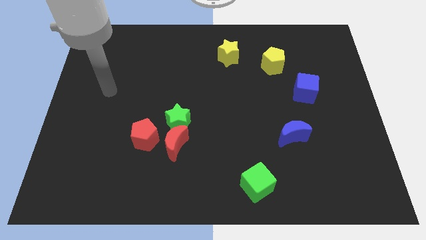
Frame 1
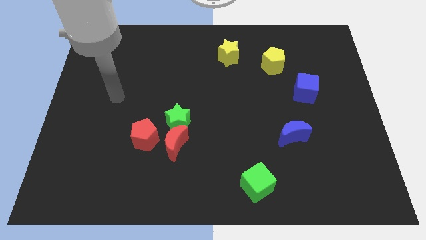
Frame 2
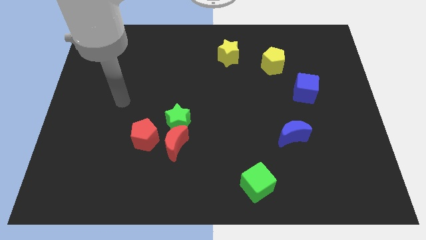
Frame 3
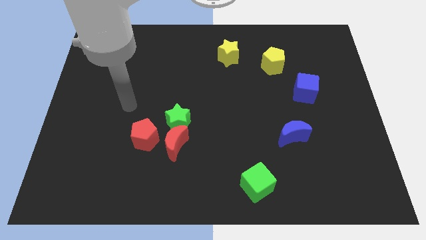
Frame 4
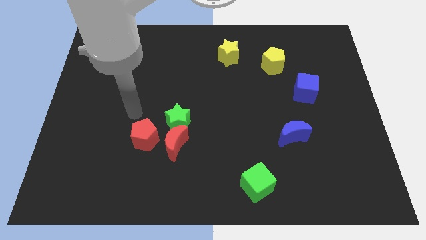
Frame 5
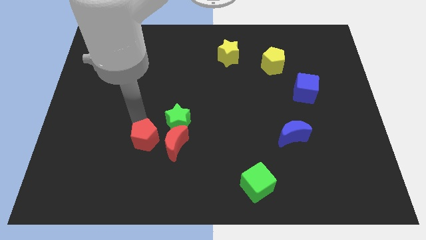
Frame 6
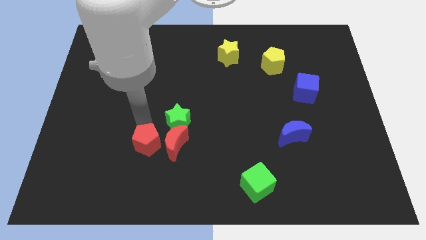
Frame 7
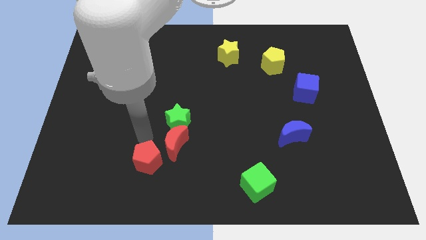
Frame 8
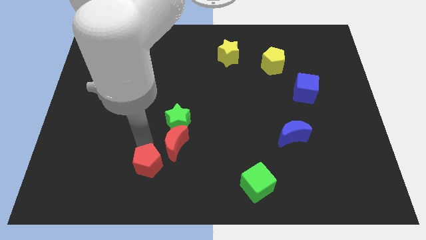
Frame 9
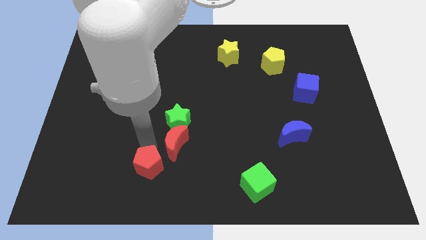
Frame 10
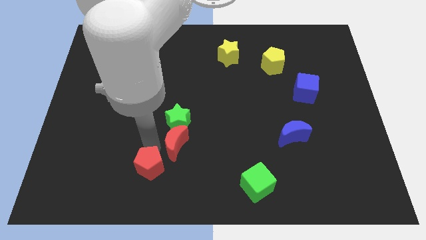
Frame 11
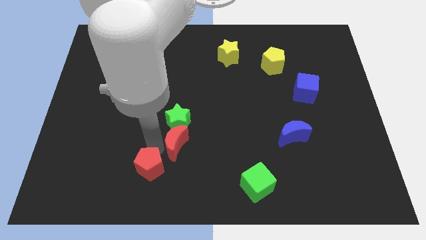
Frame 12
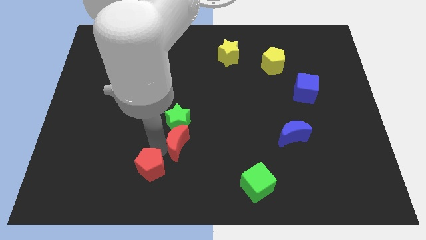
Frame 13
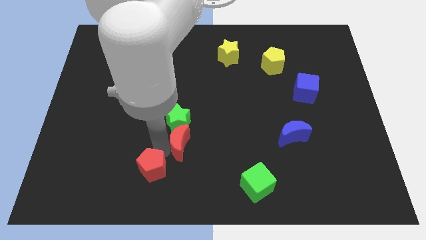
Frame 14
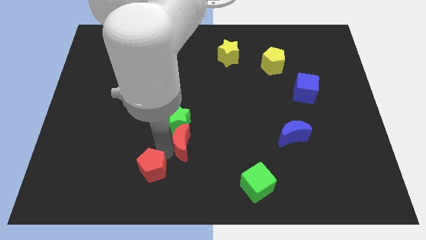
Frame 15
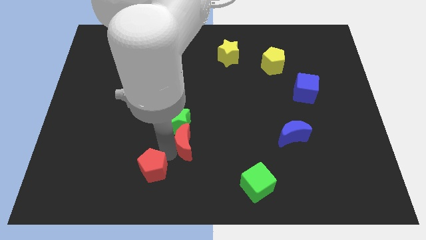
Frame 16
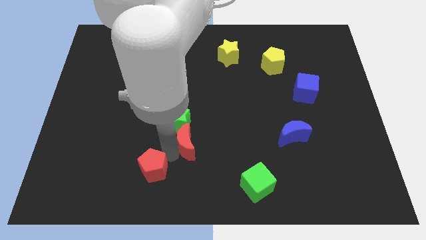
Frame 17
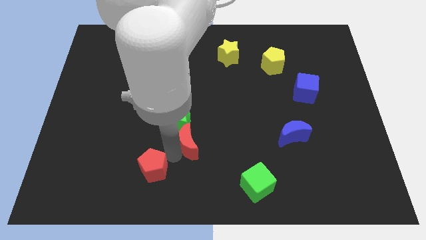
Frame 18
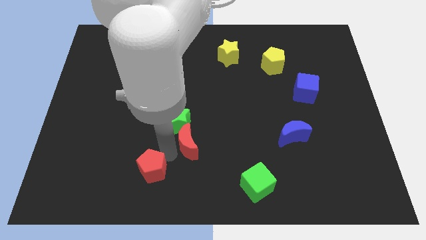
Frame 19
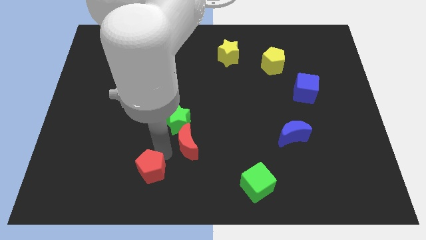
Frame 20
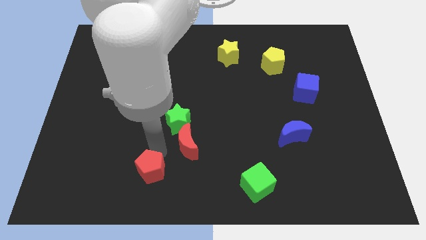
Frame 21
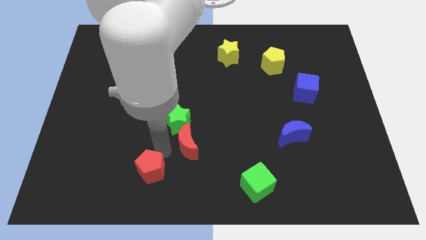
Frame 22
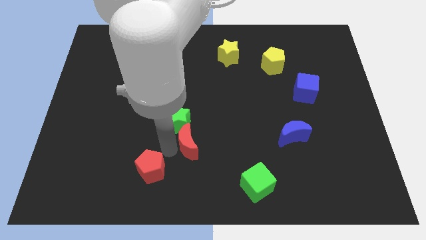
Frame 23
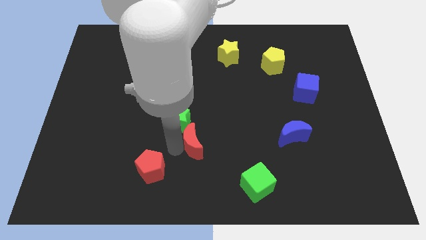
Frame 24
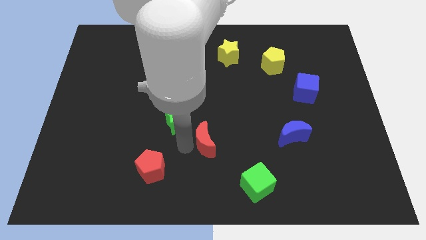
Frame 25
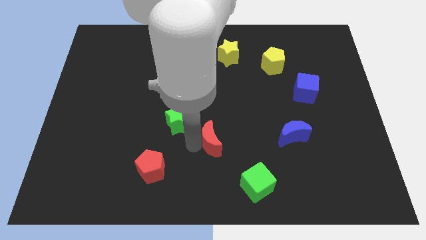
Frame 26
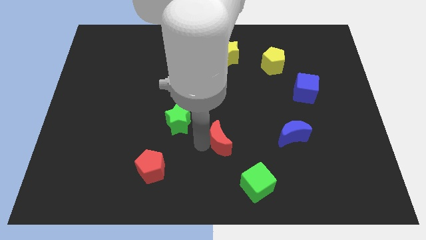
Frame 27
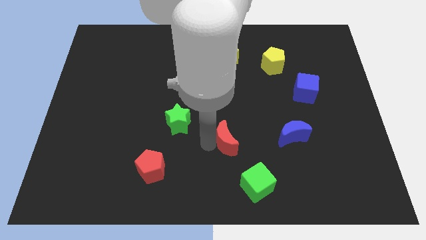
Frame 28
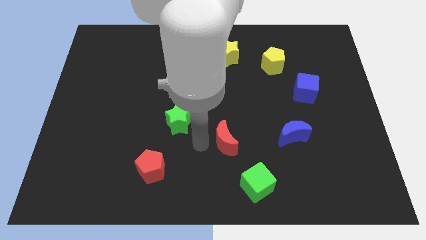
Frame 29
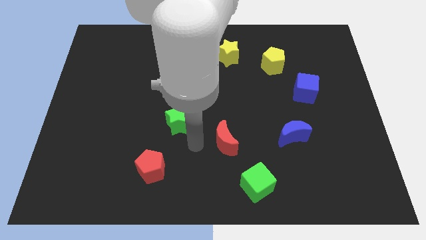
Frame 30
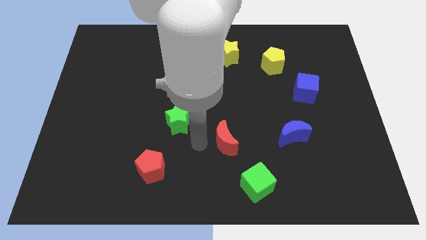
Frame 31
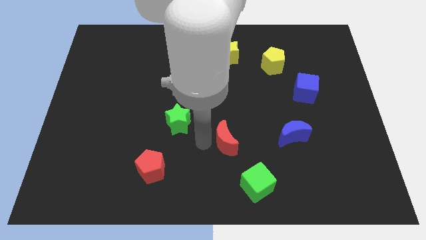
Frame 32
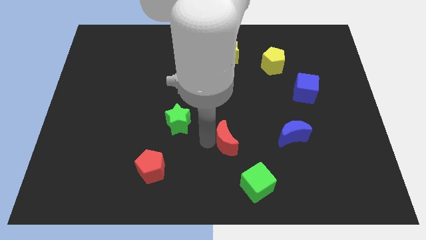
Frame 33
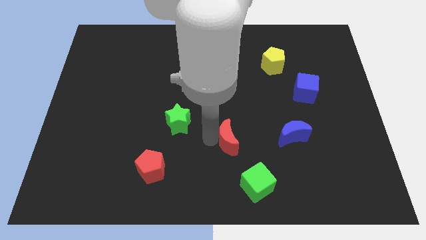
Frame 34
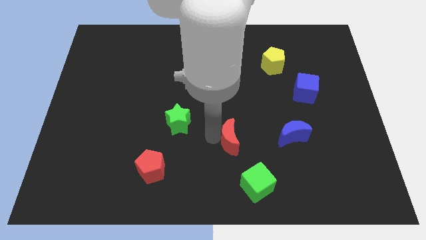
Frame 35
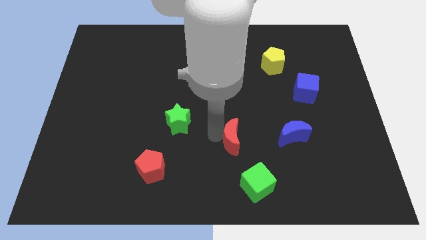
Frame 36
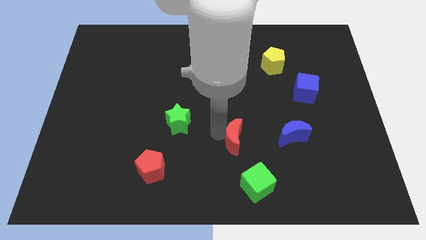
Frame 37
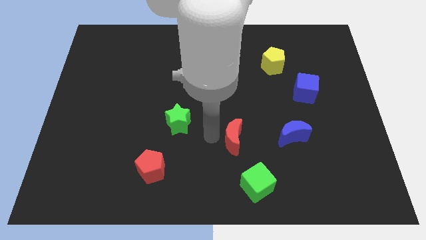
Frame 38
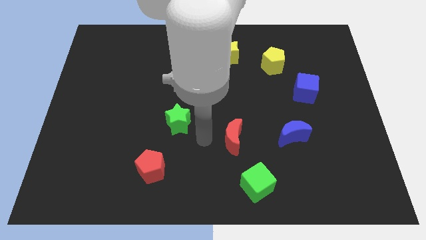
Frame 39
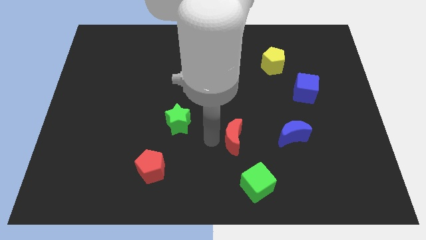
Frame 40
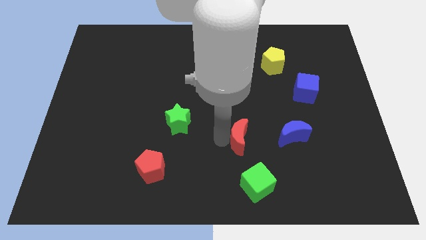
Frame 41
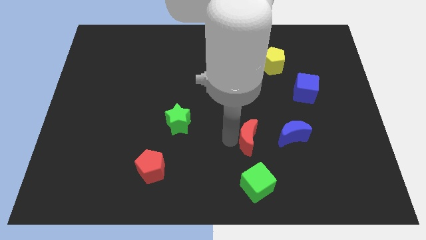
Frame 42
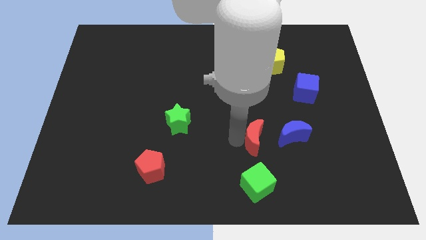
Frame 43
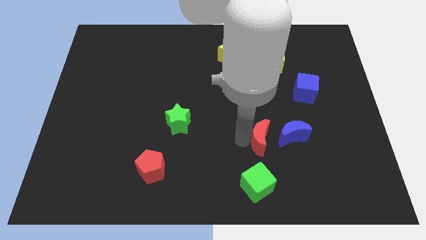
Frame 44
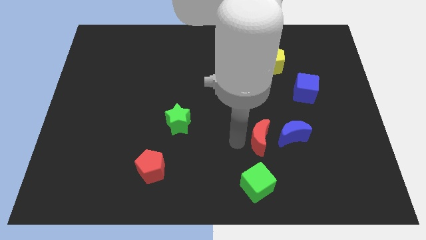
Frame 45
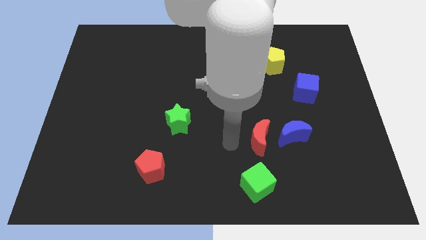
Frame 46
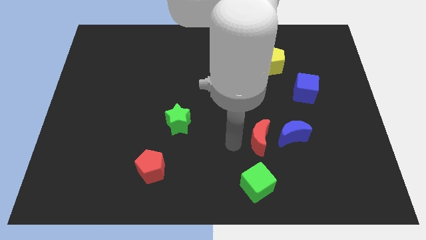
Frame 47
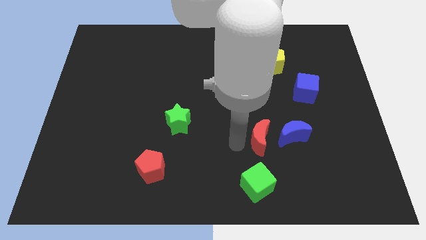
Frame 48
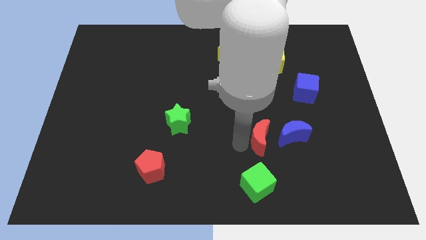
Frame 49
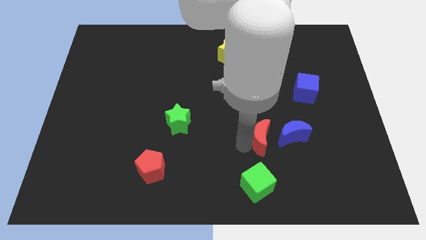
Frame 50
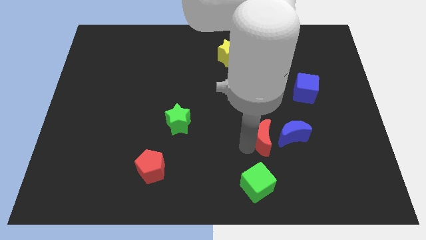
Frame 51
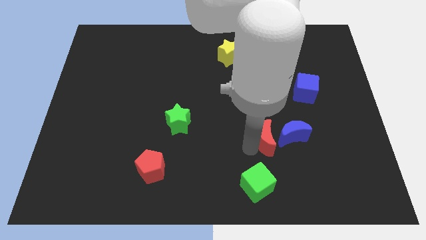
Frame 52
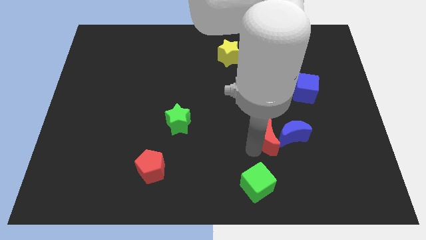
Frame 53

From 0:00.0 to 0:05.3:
put the red moon close to the blue moon

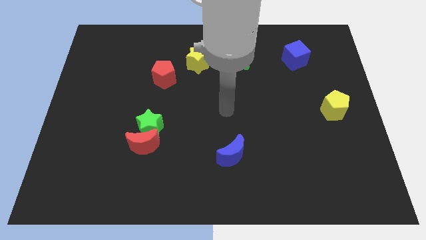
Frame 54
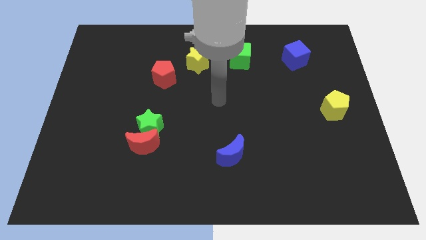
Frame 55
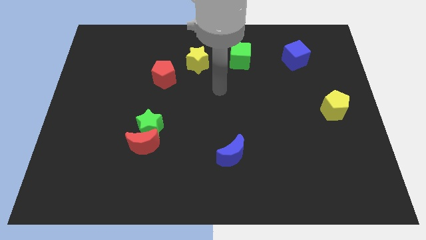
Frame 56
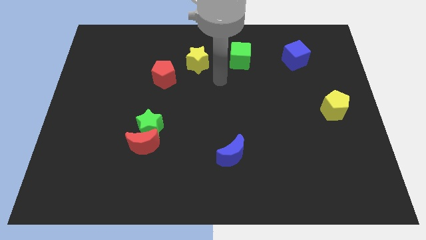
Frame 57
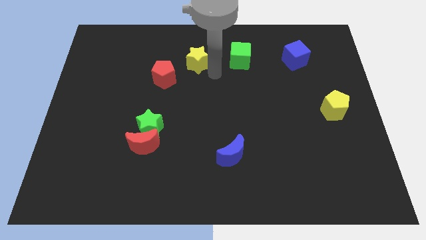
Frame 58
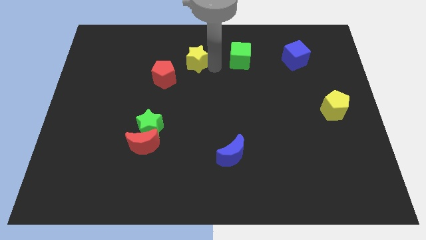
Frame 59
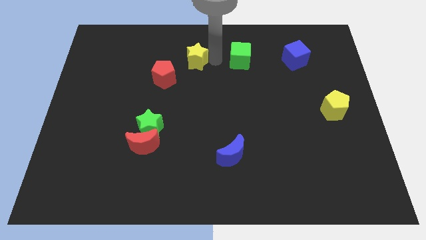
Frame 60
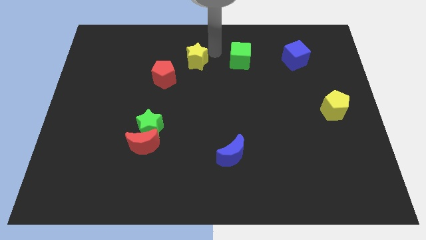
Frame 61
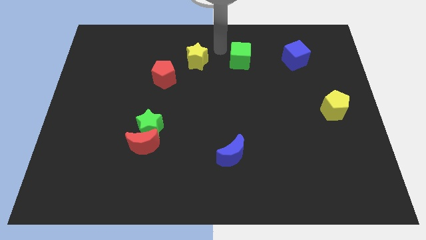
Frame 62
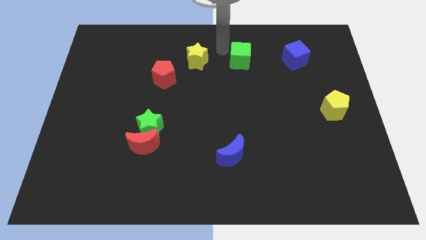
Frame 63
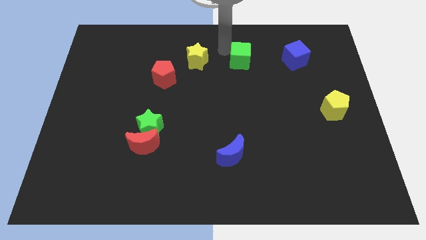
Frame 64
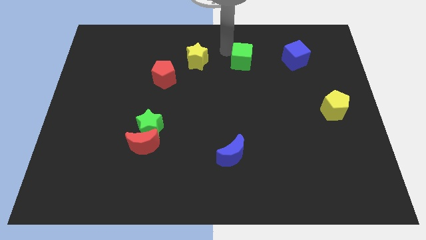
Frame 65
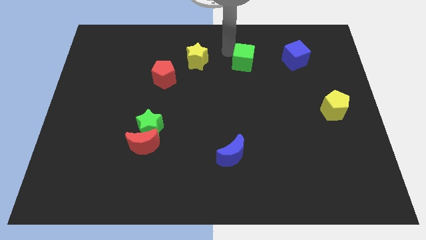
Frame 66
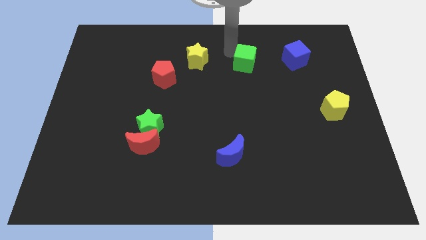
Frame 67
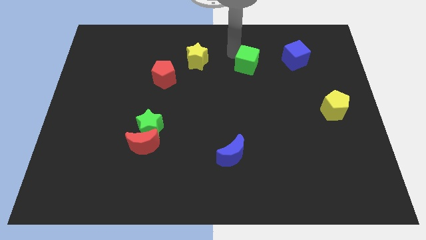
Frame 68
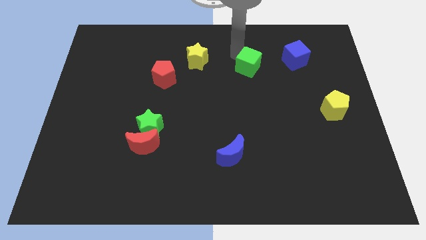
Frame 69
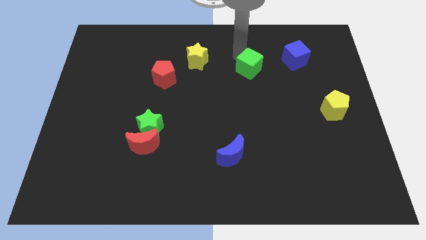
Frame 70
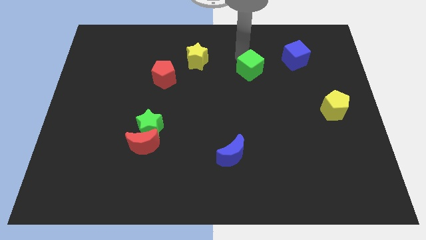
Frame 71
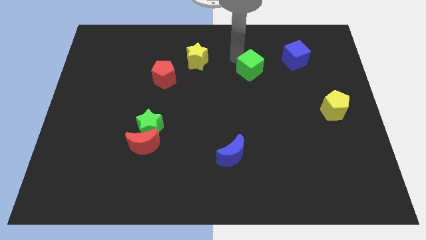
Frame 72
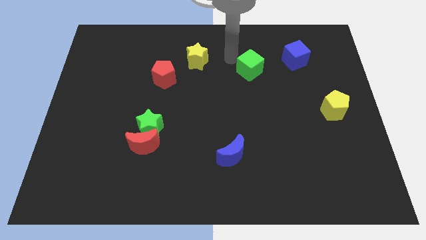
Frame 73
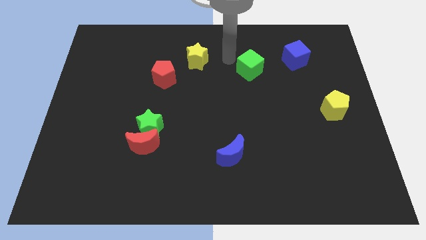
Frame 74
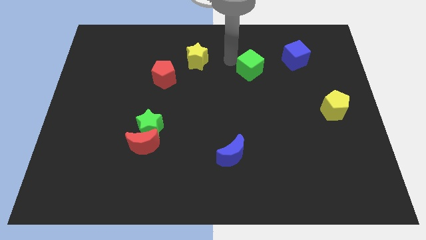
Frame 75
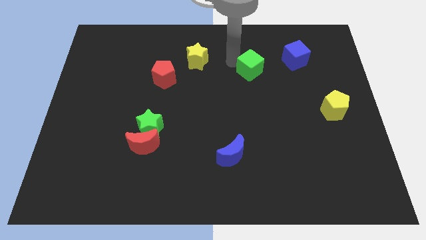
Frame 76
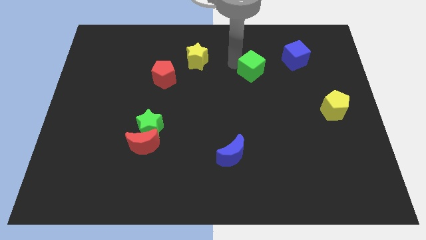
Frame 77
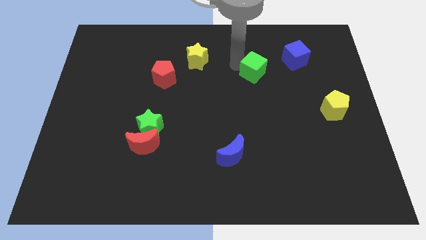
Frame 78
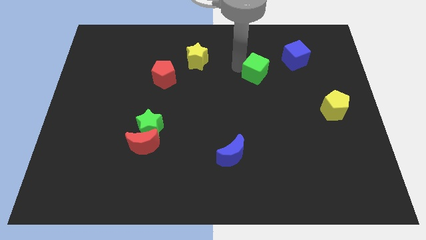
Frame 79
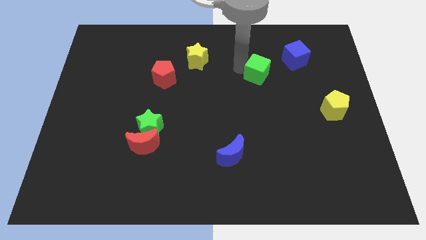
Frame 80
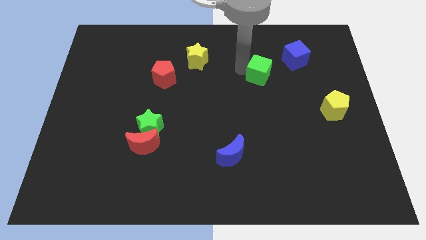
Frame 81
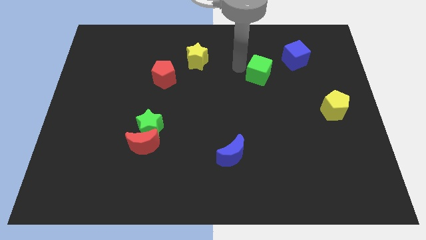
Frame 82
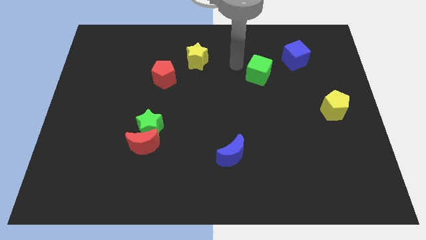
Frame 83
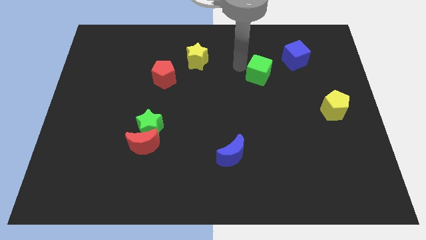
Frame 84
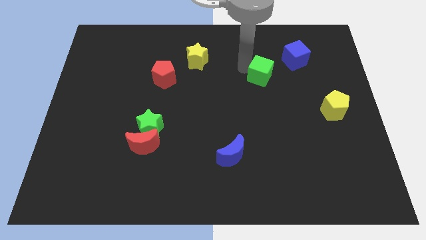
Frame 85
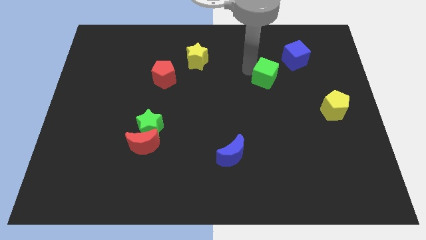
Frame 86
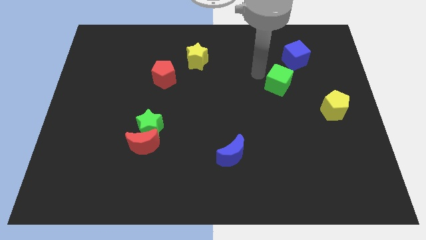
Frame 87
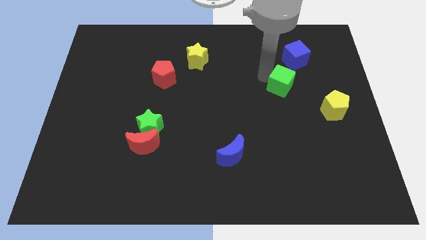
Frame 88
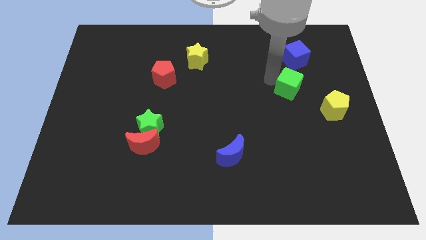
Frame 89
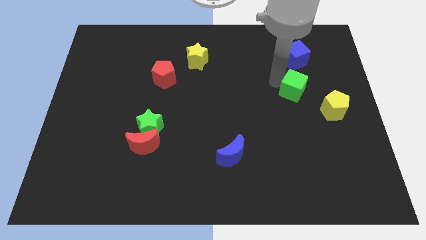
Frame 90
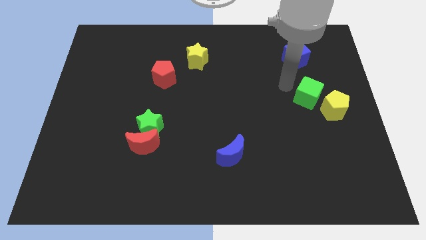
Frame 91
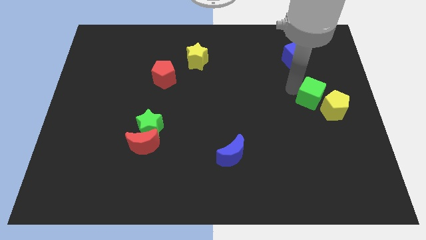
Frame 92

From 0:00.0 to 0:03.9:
put the green cube close to the yellow pentagon
